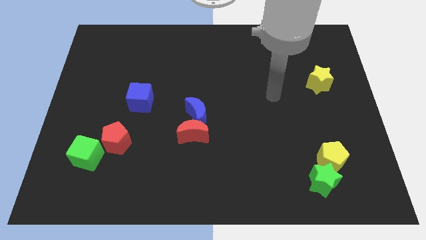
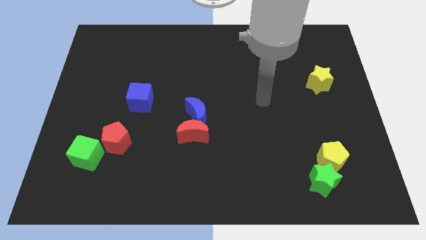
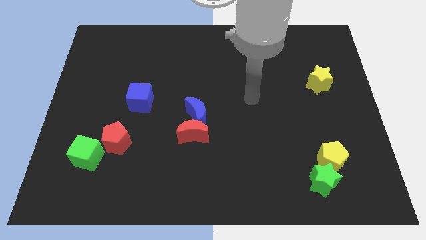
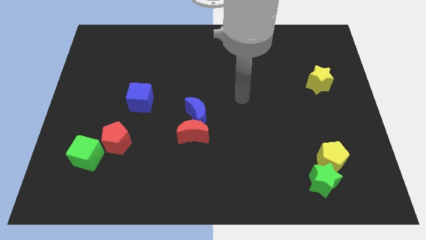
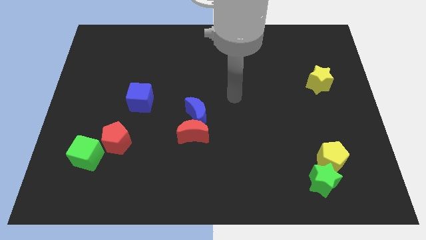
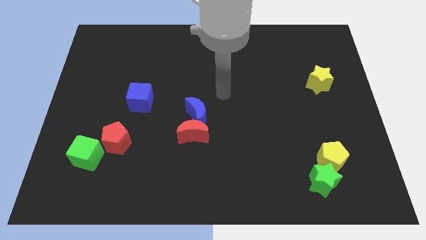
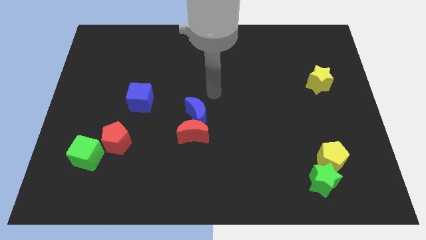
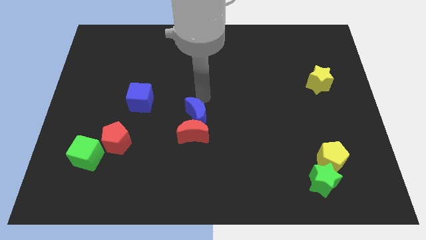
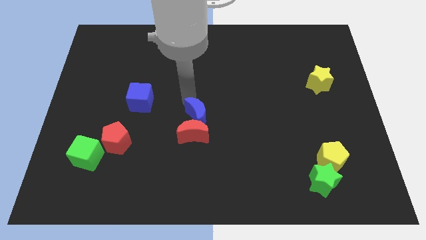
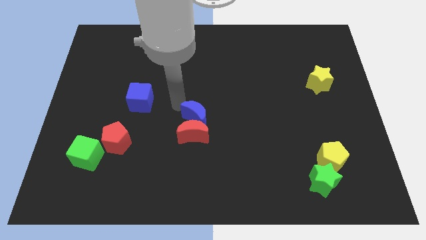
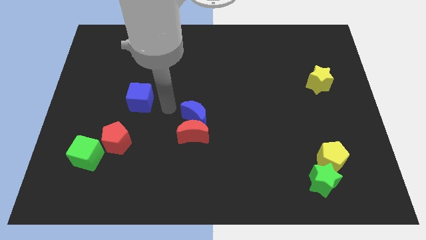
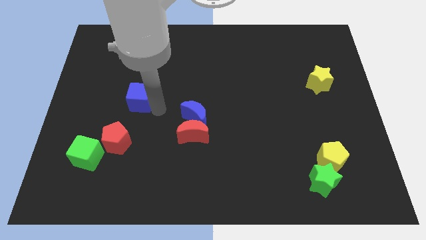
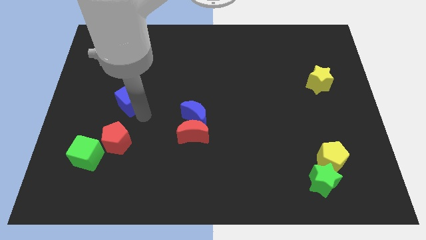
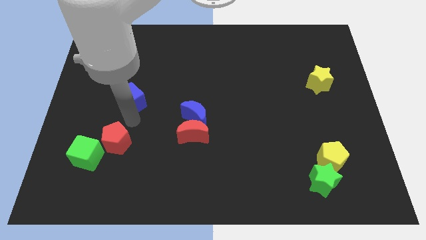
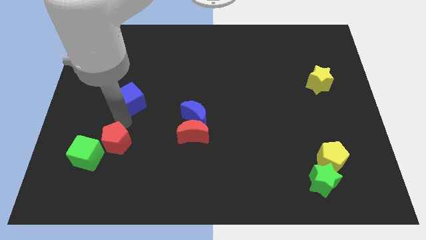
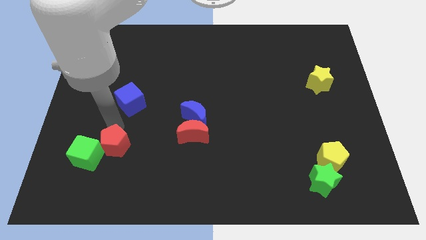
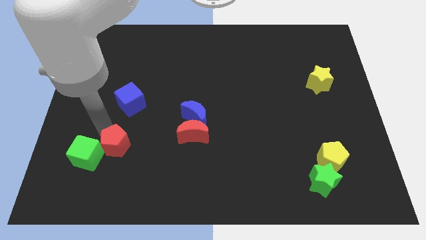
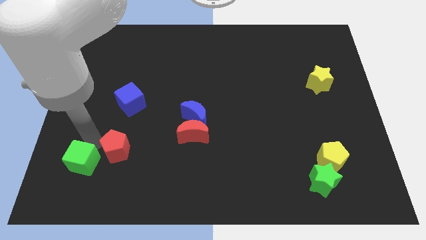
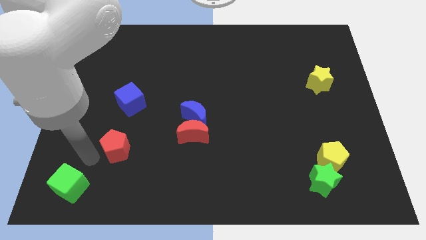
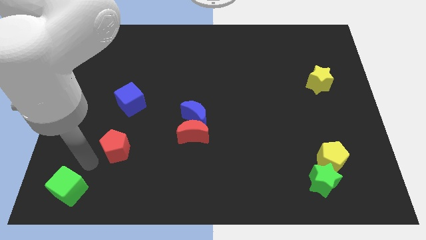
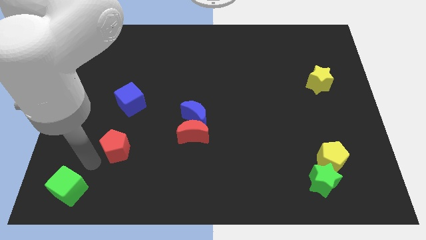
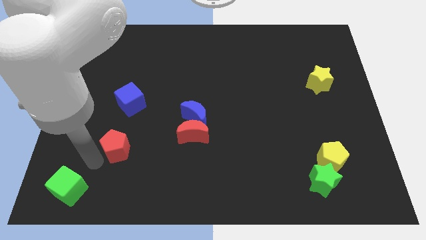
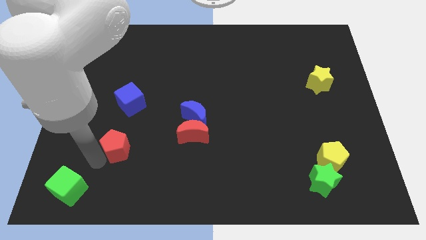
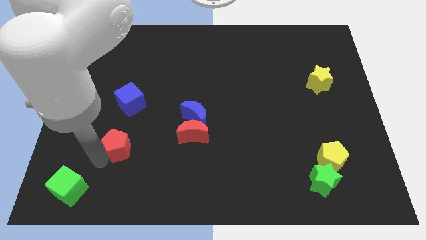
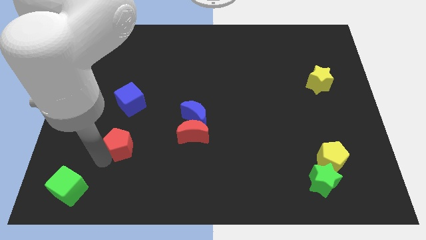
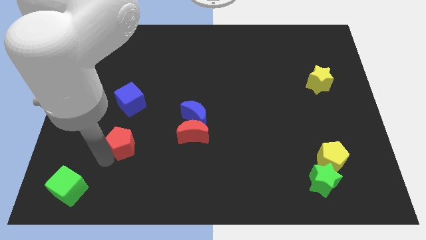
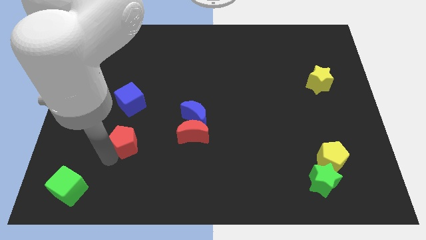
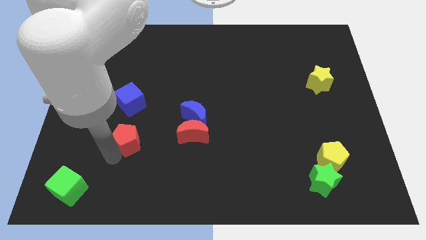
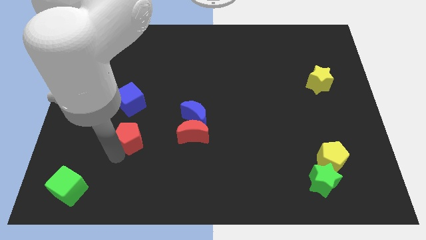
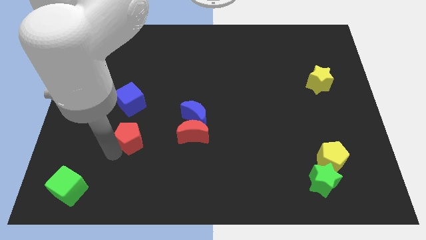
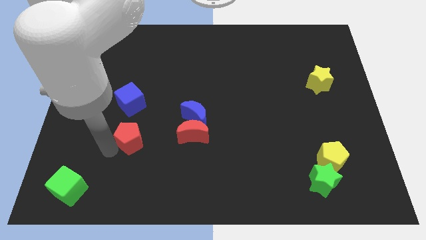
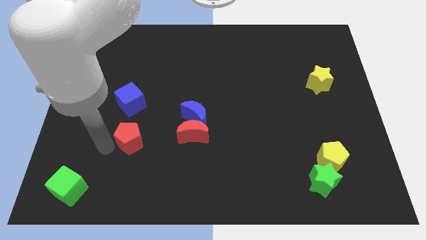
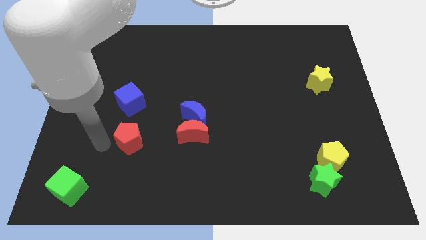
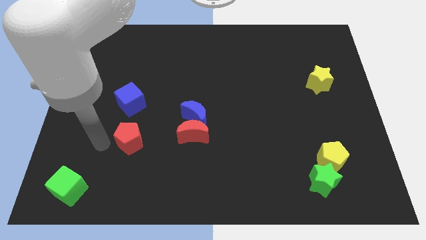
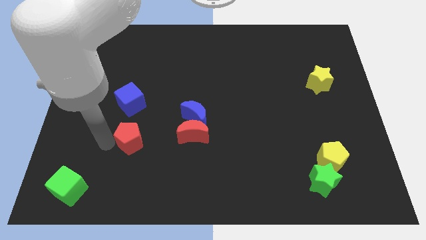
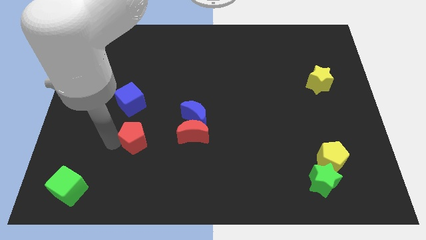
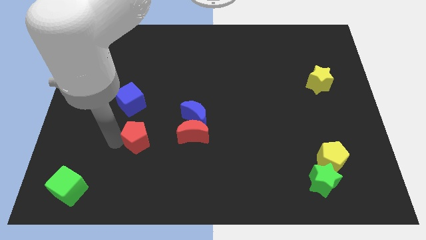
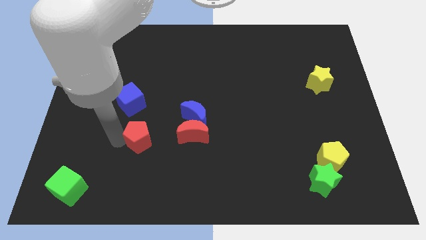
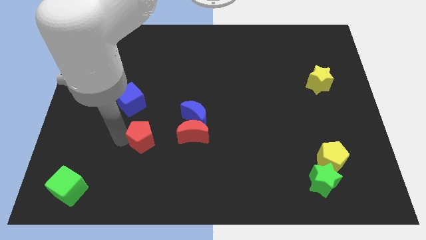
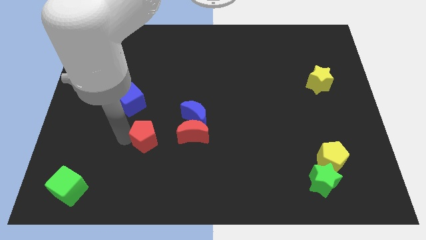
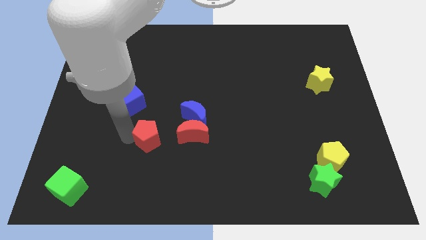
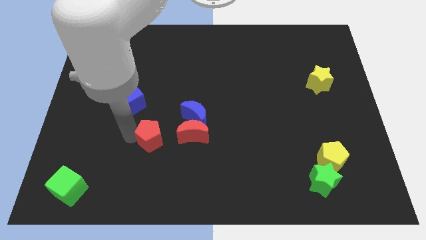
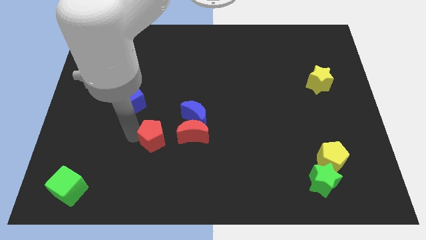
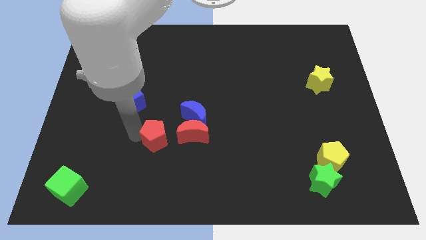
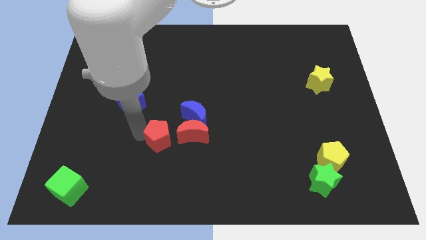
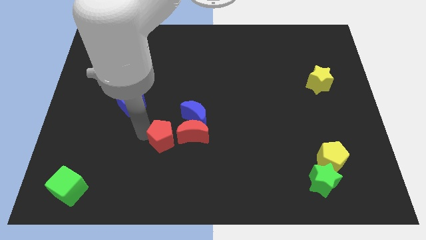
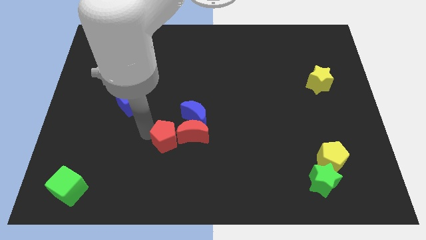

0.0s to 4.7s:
move the red pentagon towards the red moon

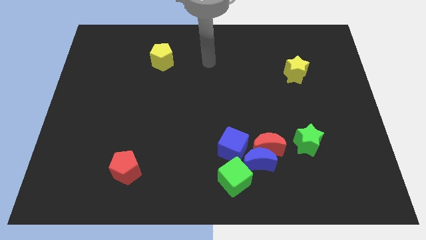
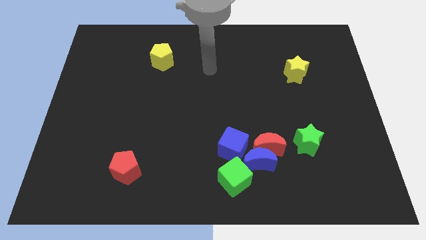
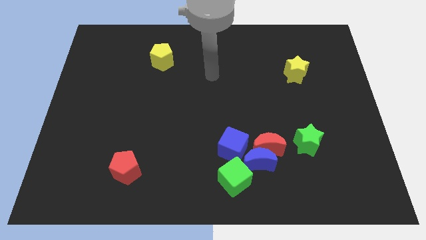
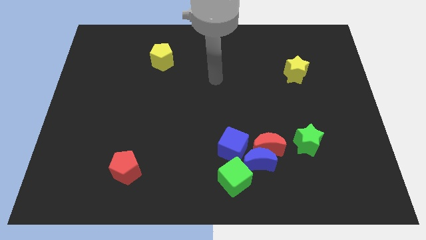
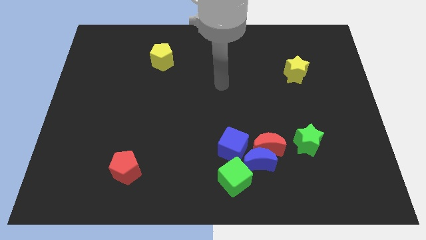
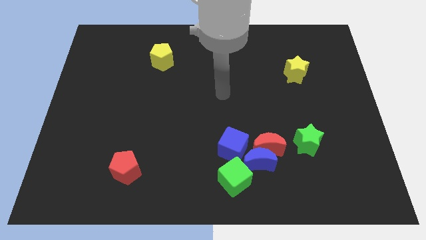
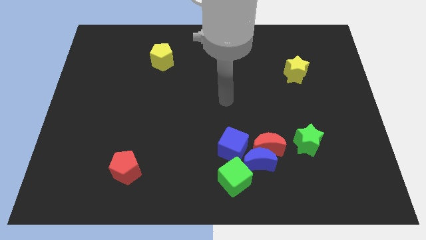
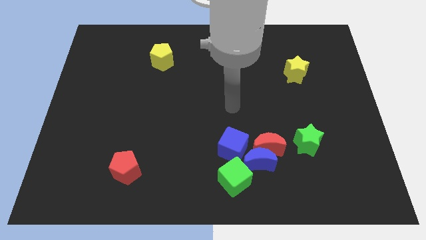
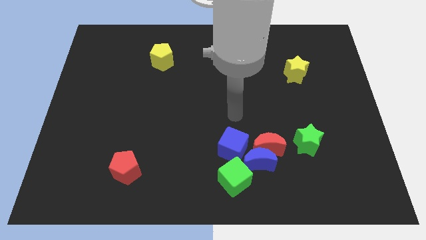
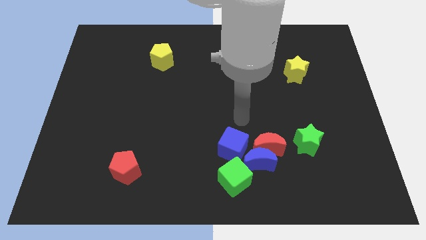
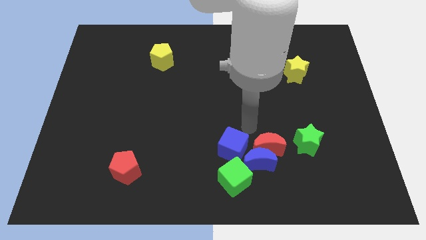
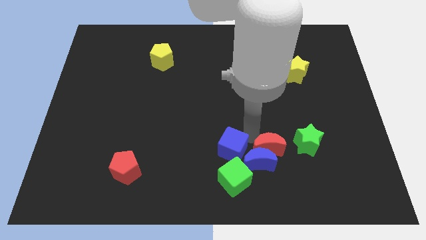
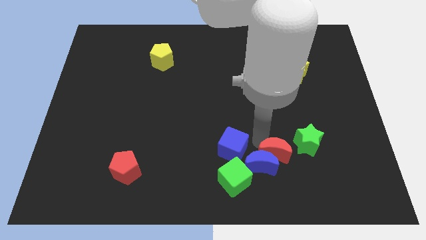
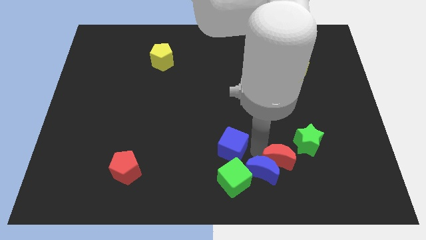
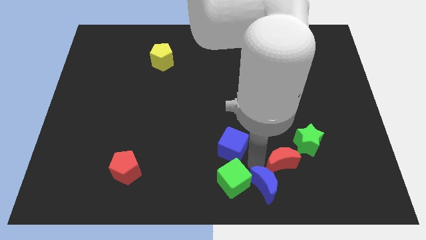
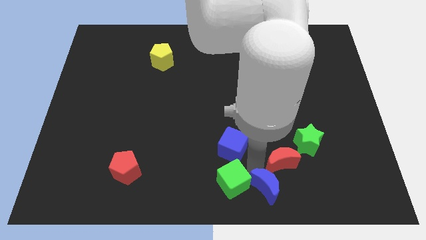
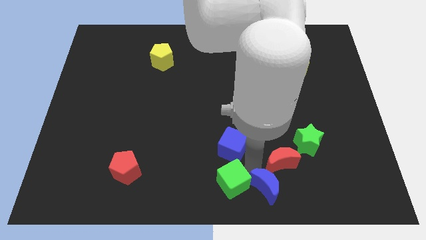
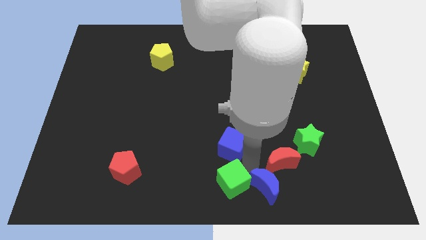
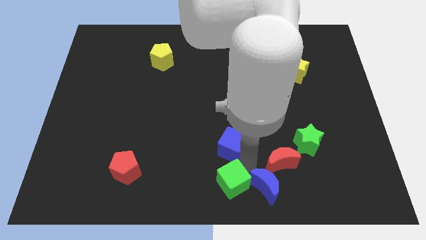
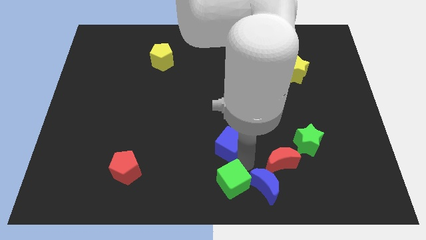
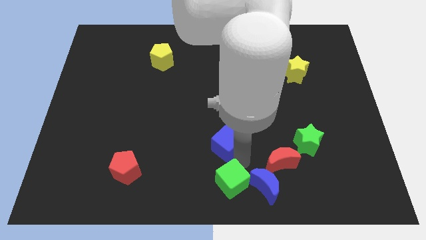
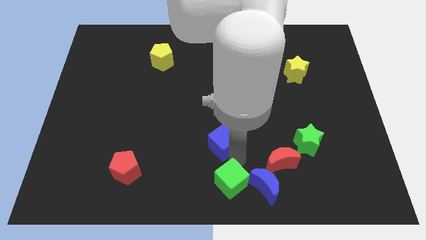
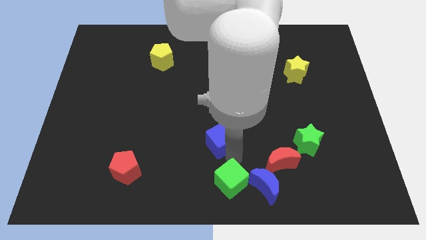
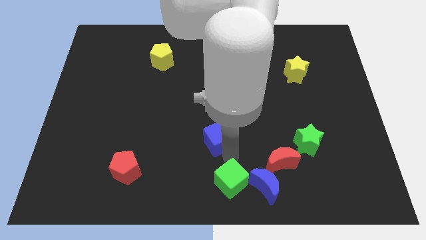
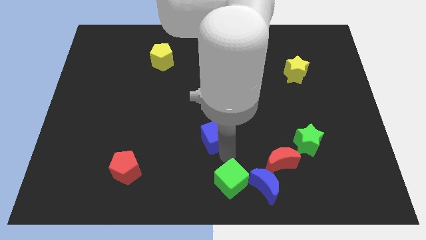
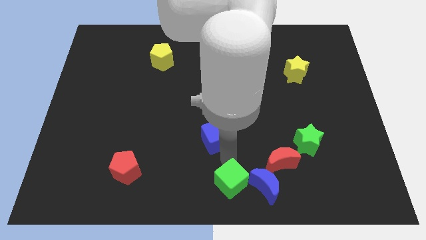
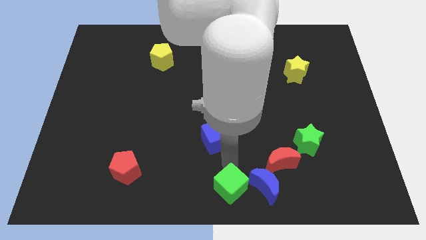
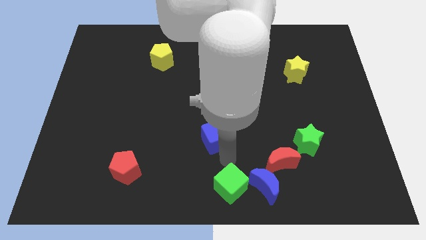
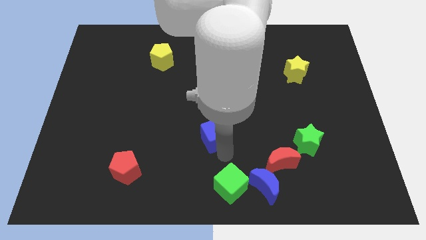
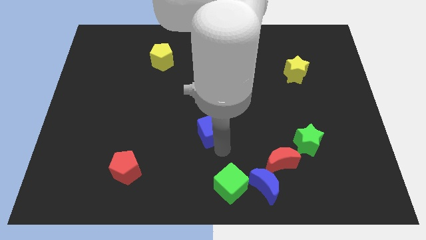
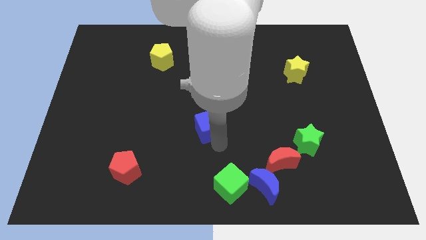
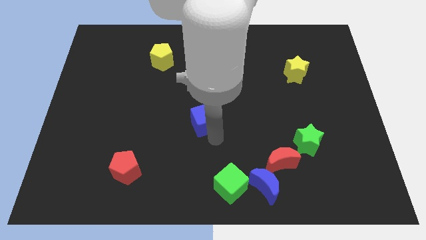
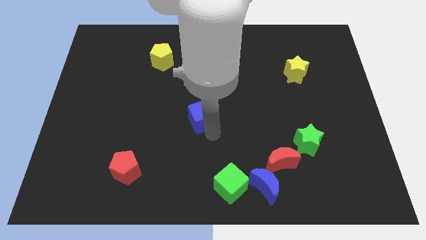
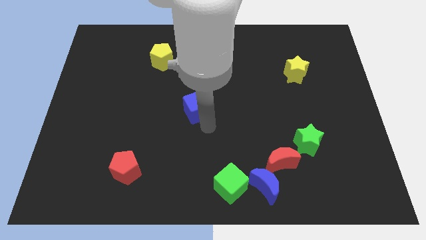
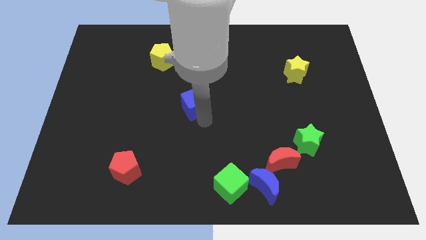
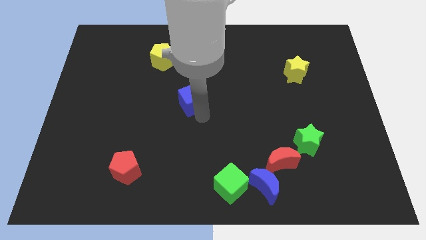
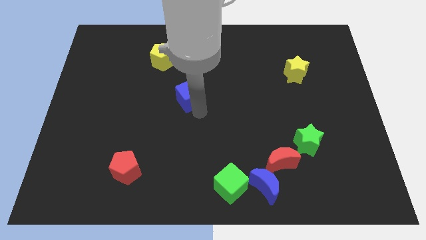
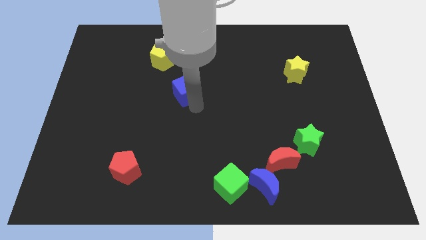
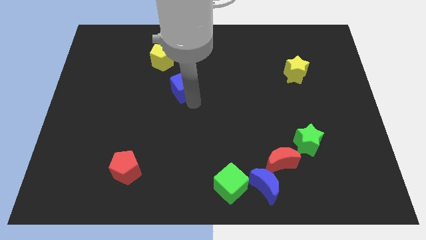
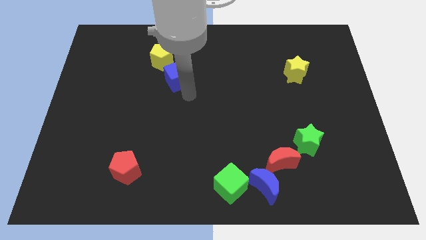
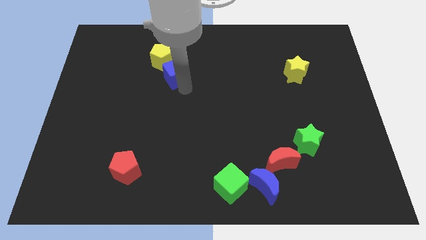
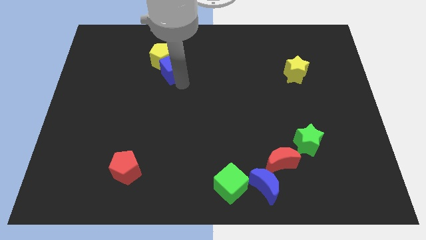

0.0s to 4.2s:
move the blue cube close to the yellow pentagon
